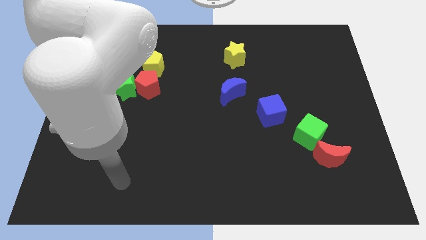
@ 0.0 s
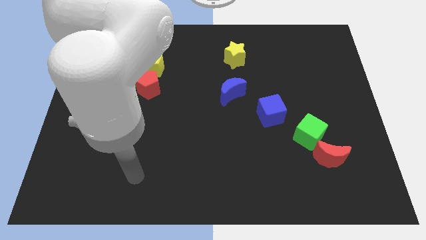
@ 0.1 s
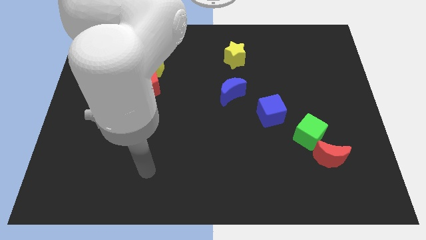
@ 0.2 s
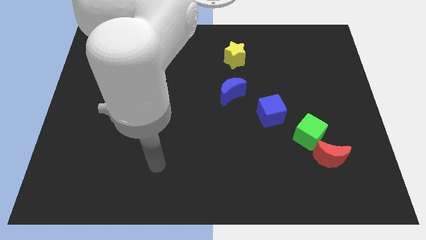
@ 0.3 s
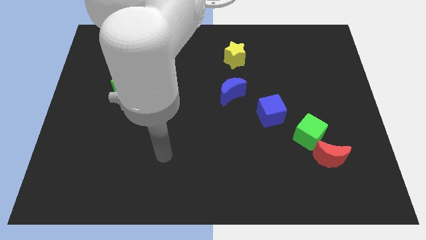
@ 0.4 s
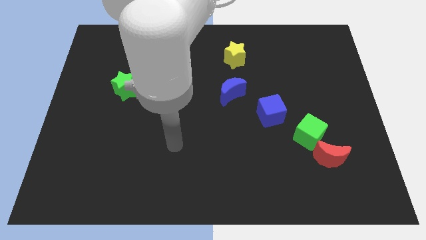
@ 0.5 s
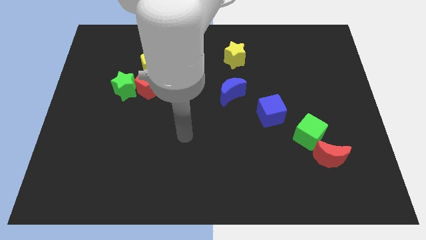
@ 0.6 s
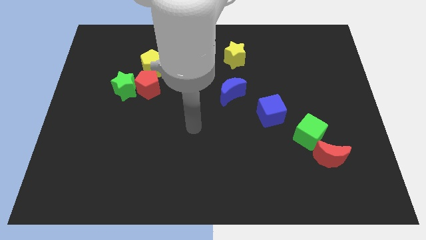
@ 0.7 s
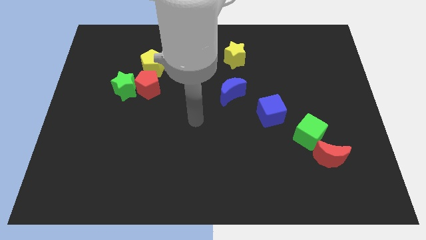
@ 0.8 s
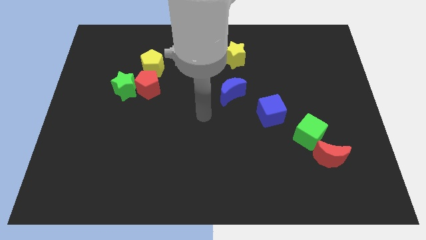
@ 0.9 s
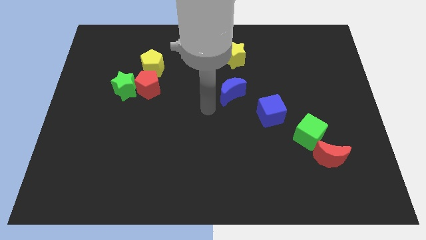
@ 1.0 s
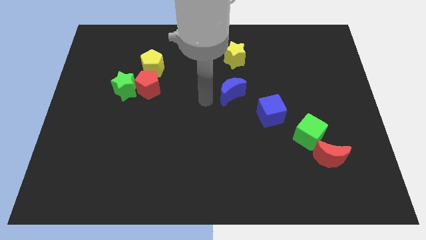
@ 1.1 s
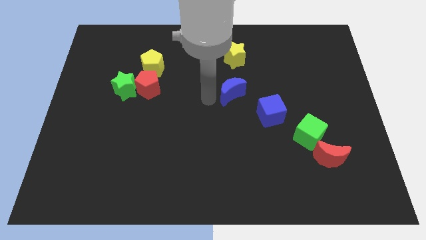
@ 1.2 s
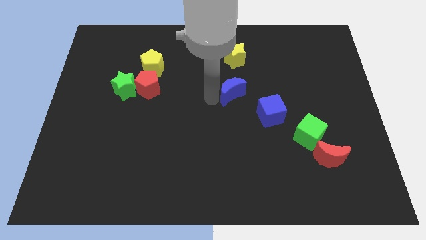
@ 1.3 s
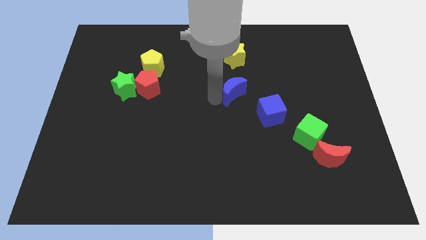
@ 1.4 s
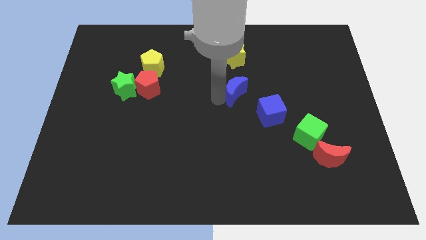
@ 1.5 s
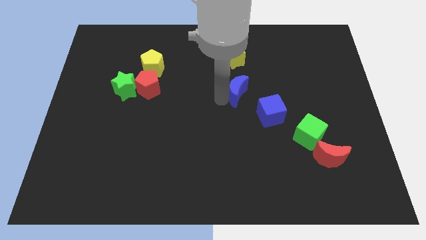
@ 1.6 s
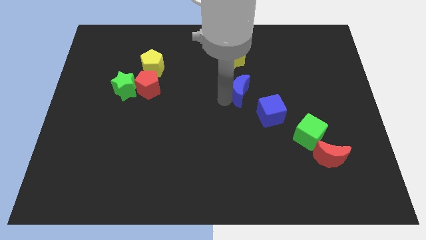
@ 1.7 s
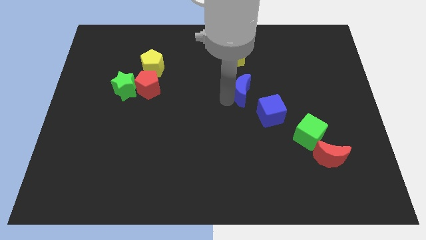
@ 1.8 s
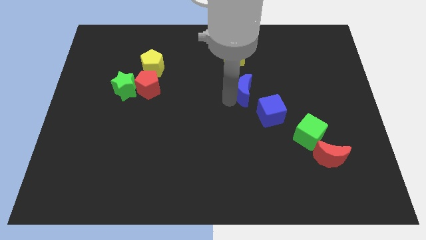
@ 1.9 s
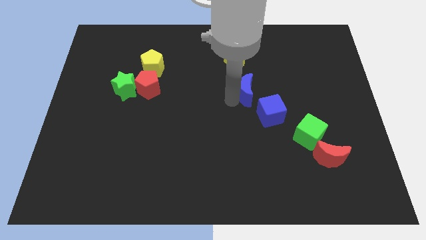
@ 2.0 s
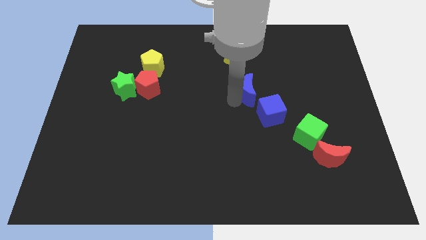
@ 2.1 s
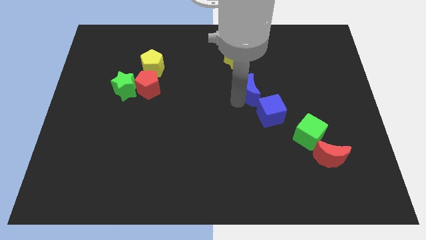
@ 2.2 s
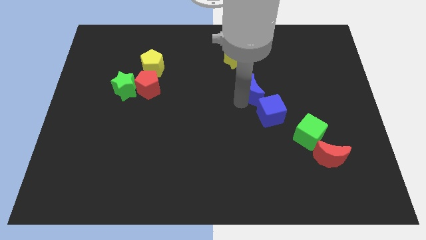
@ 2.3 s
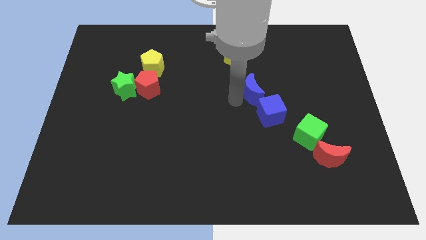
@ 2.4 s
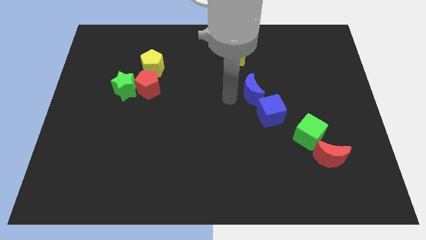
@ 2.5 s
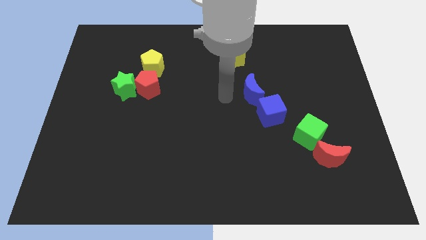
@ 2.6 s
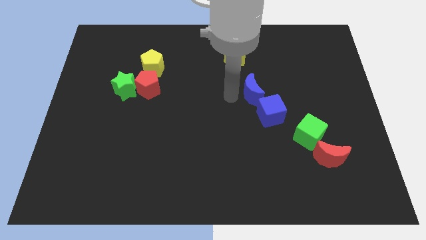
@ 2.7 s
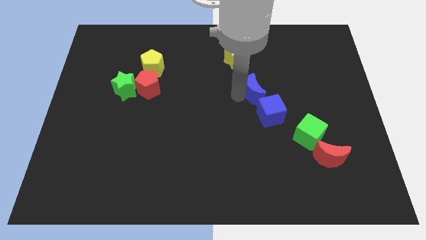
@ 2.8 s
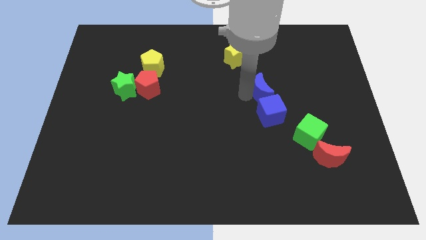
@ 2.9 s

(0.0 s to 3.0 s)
slide the blue moon right slightly

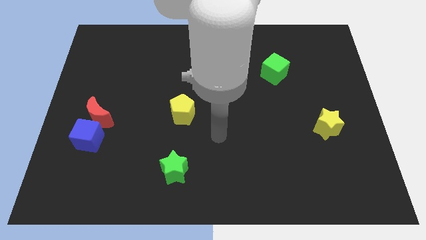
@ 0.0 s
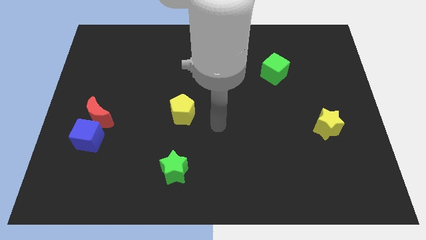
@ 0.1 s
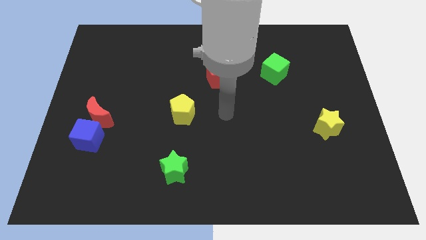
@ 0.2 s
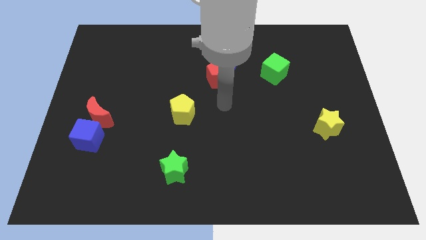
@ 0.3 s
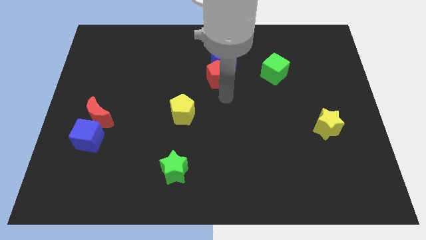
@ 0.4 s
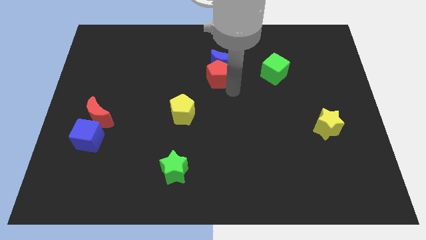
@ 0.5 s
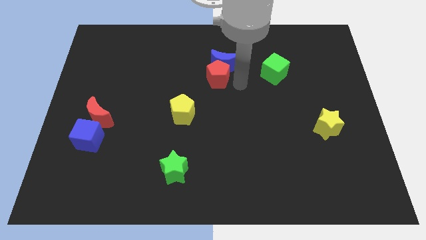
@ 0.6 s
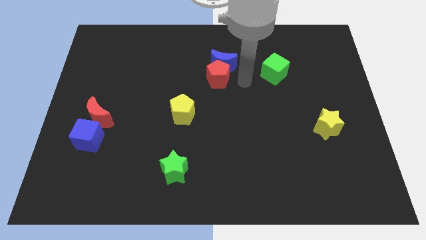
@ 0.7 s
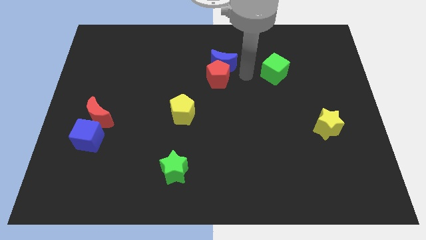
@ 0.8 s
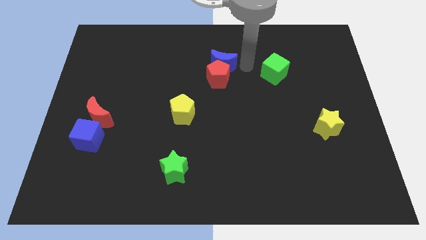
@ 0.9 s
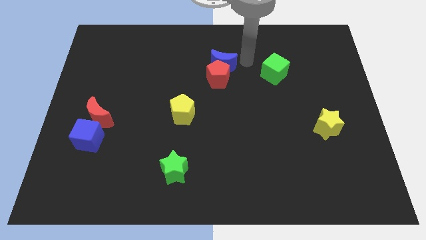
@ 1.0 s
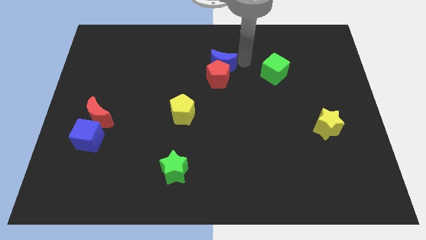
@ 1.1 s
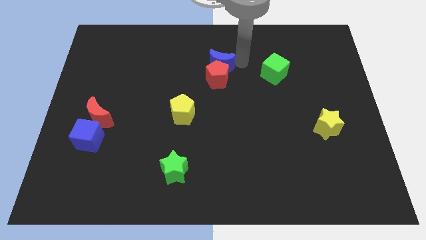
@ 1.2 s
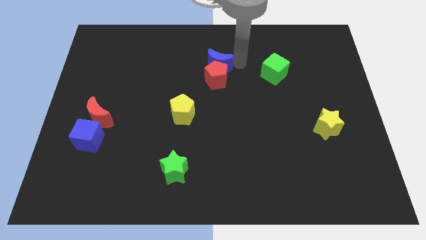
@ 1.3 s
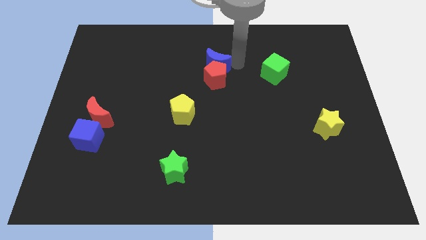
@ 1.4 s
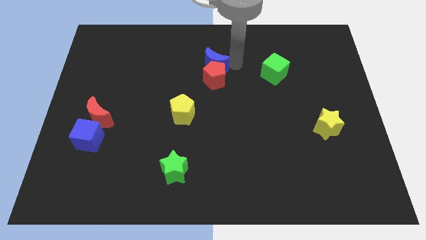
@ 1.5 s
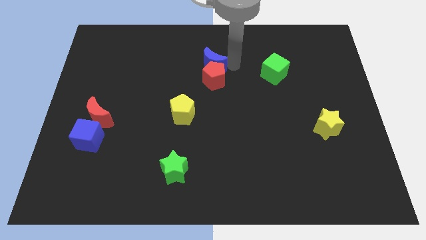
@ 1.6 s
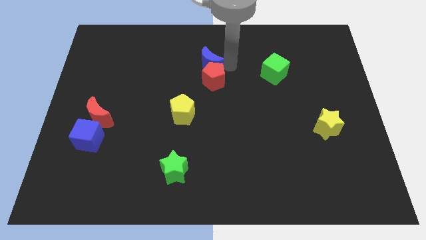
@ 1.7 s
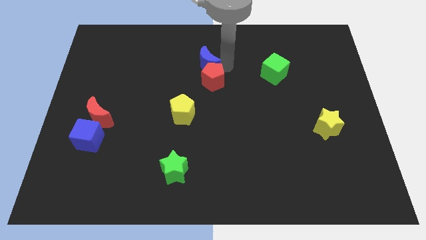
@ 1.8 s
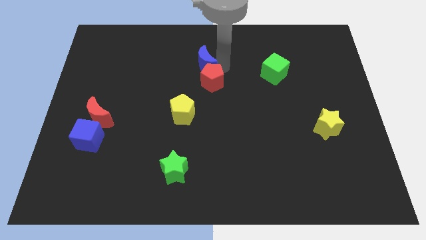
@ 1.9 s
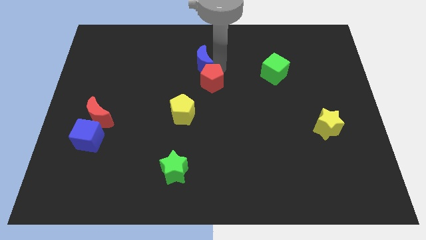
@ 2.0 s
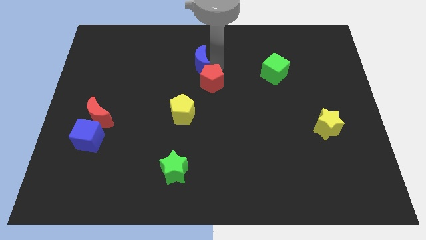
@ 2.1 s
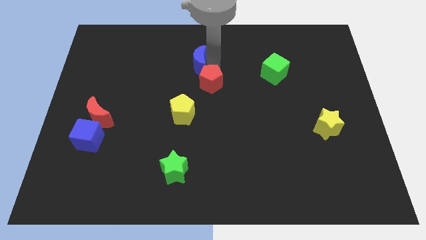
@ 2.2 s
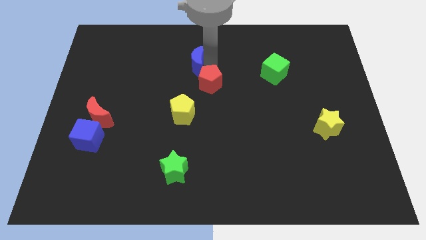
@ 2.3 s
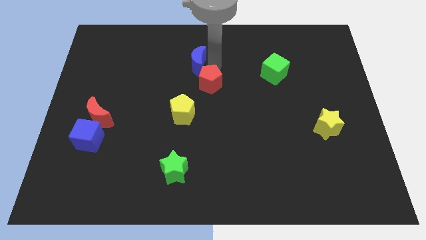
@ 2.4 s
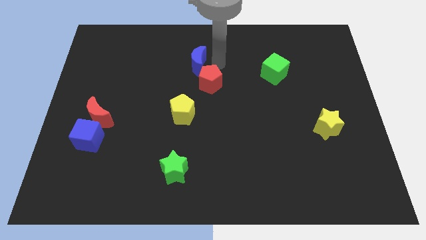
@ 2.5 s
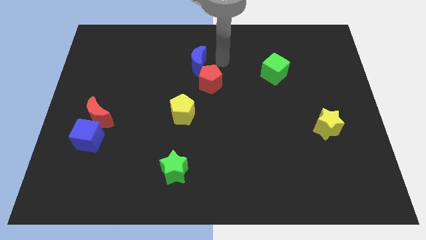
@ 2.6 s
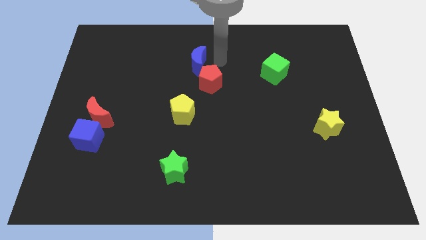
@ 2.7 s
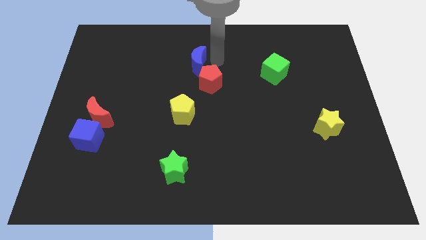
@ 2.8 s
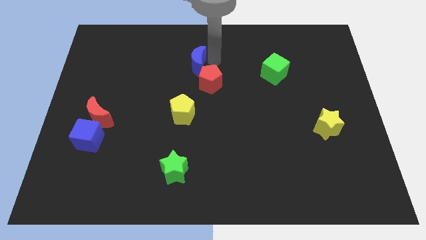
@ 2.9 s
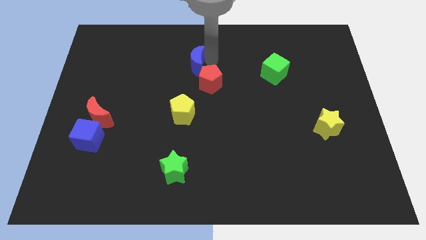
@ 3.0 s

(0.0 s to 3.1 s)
slightly slide the blue moon to the left

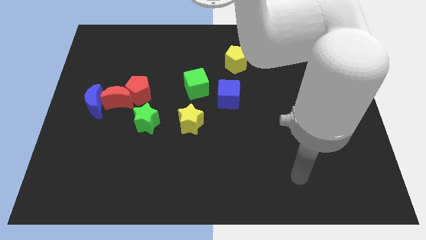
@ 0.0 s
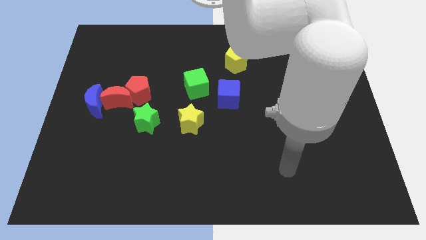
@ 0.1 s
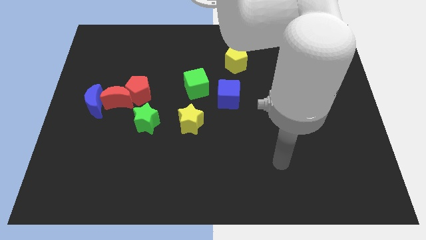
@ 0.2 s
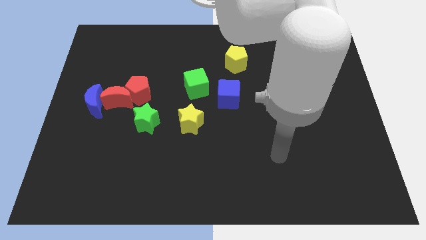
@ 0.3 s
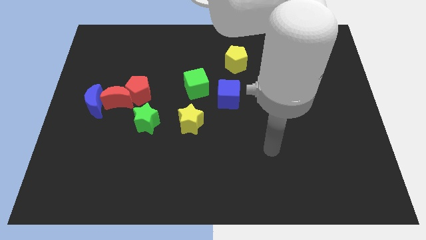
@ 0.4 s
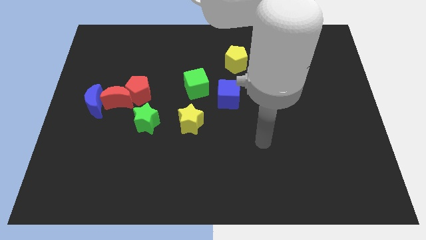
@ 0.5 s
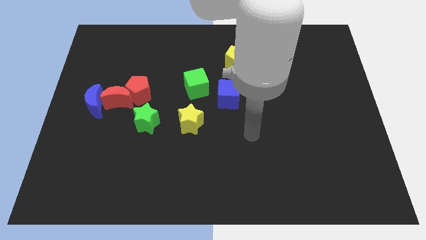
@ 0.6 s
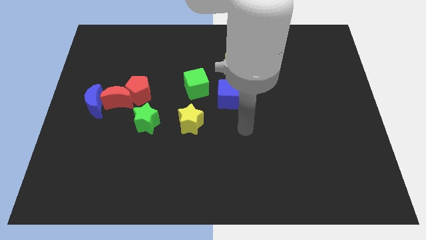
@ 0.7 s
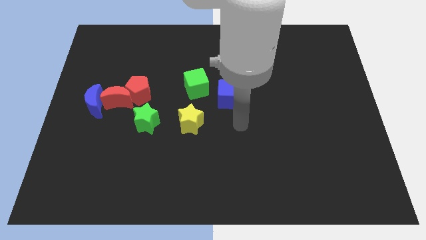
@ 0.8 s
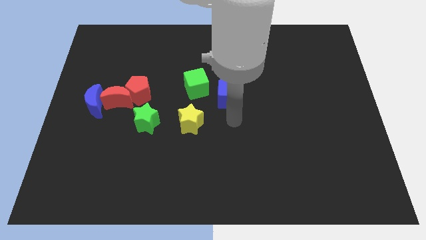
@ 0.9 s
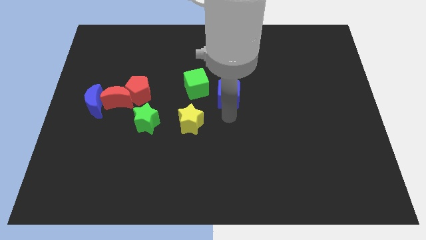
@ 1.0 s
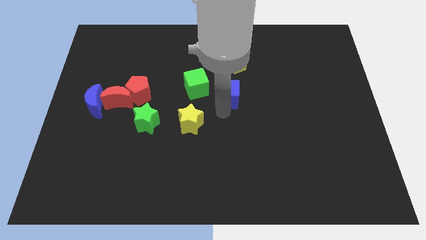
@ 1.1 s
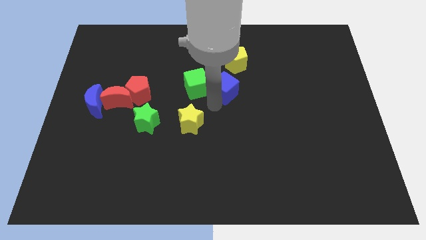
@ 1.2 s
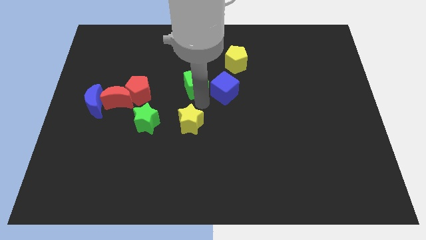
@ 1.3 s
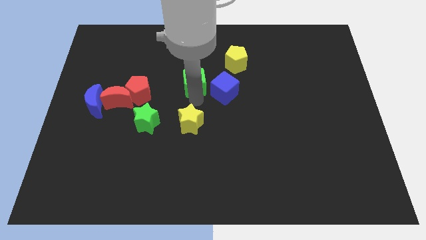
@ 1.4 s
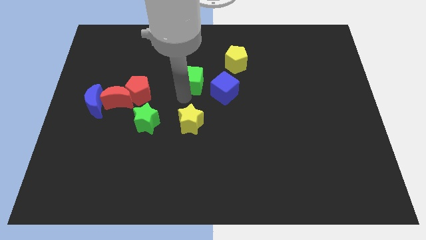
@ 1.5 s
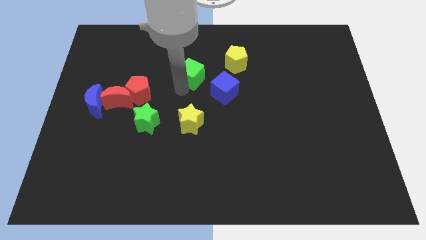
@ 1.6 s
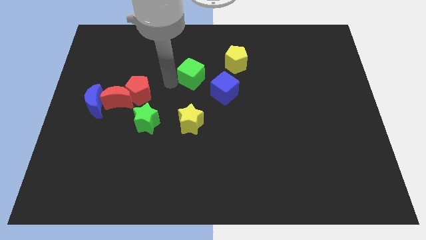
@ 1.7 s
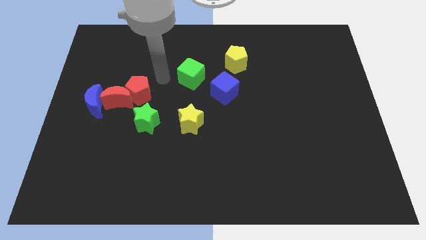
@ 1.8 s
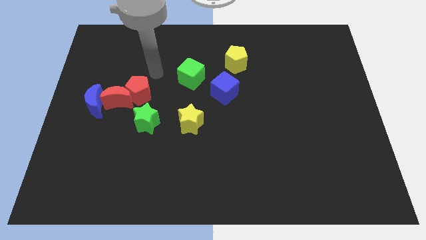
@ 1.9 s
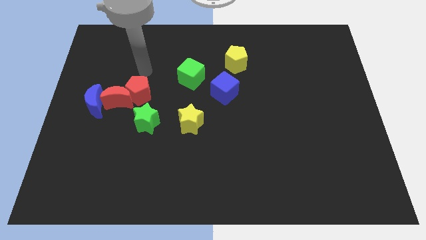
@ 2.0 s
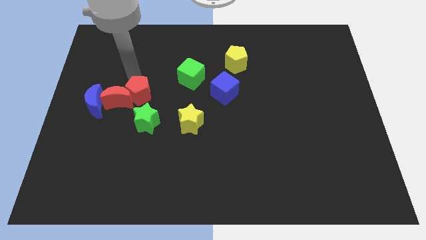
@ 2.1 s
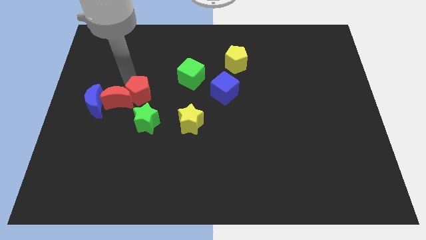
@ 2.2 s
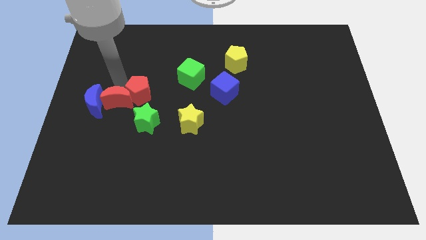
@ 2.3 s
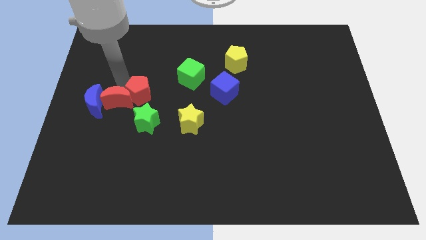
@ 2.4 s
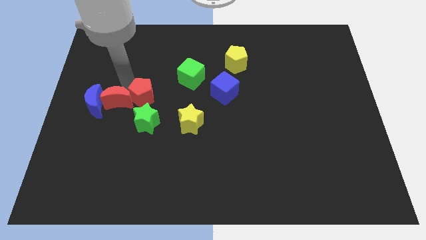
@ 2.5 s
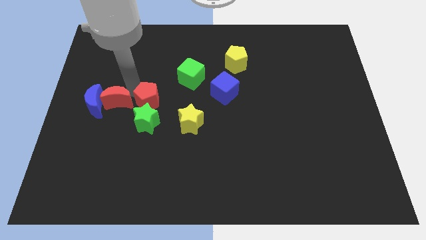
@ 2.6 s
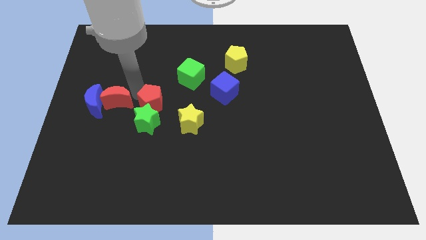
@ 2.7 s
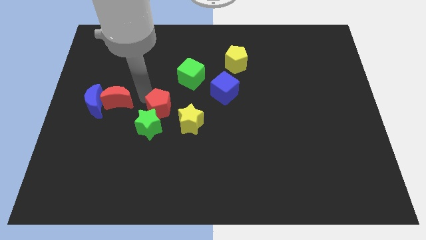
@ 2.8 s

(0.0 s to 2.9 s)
push the red pentagon downwards and then right a bit
